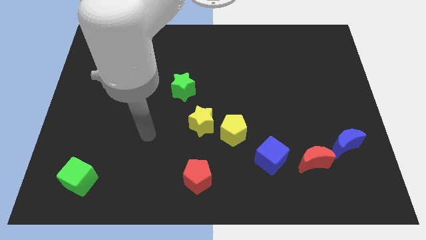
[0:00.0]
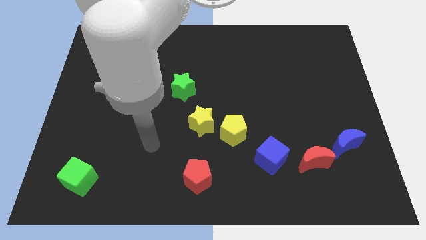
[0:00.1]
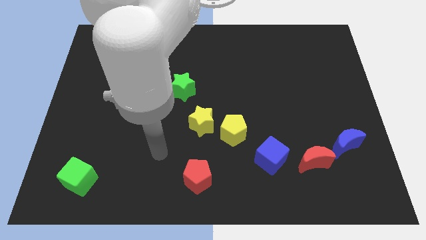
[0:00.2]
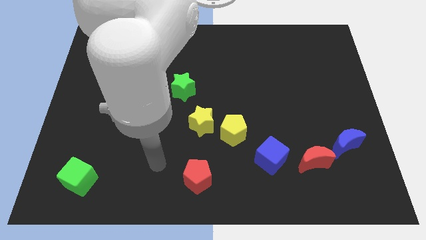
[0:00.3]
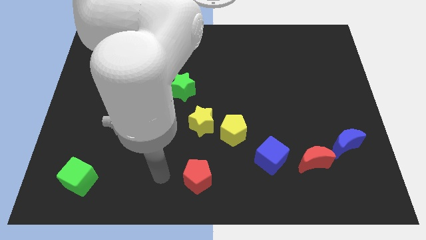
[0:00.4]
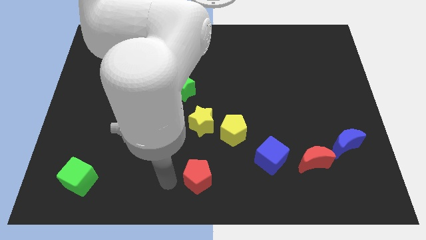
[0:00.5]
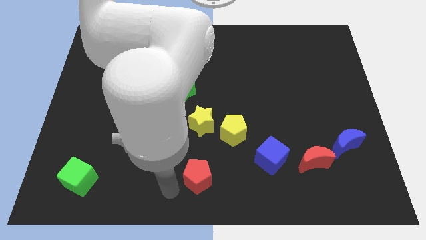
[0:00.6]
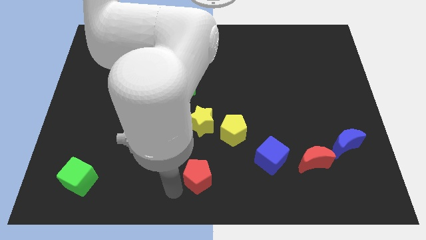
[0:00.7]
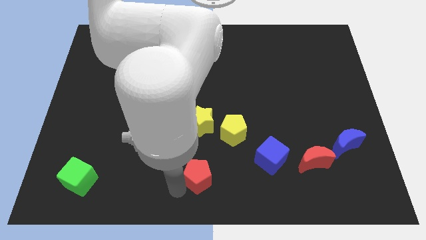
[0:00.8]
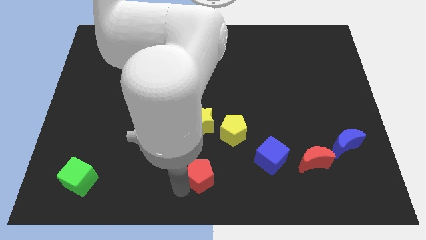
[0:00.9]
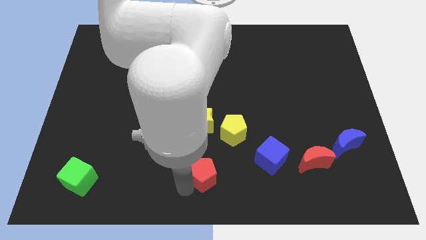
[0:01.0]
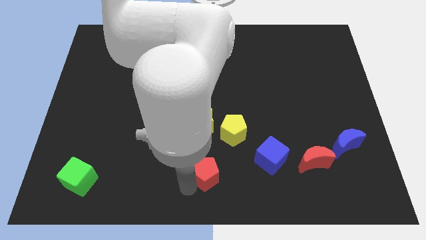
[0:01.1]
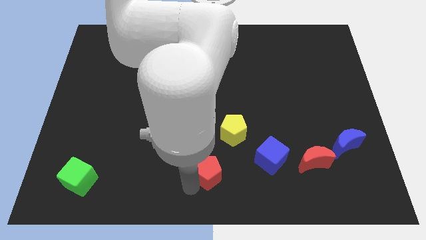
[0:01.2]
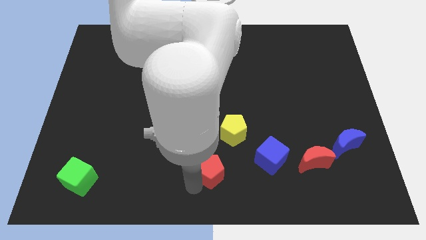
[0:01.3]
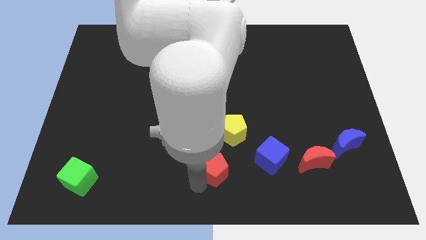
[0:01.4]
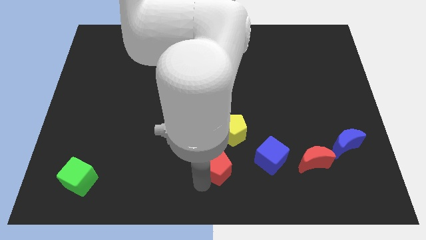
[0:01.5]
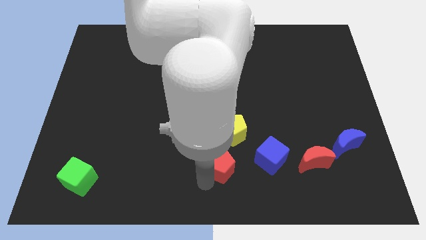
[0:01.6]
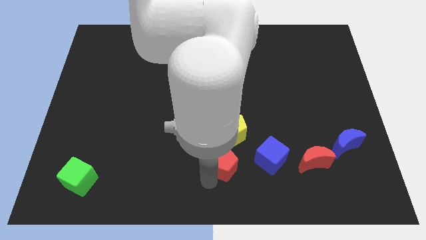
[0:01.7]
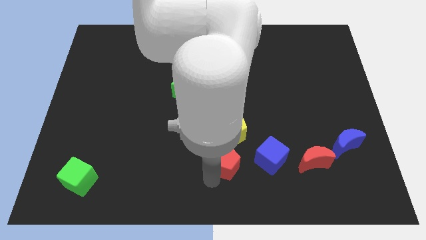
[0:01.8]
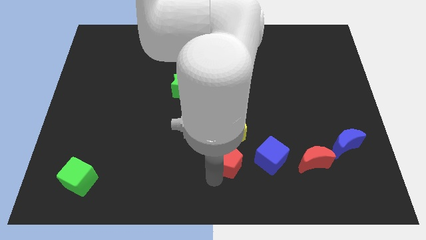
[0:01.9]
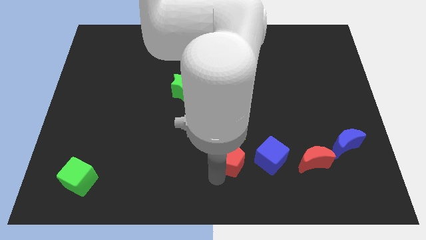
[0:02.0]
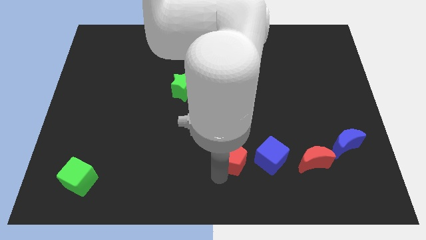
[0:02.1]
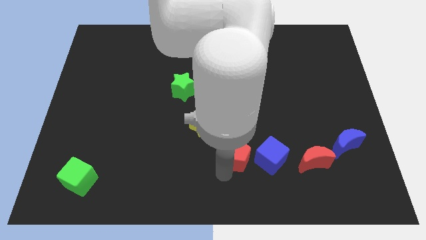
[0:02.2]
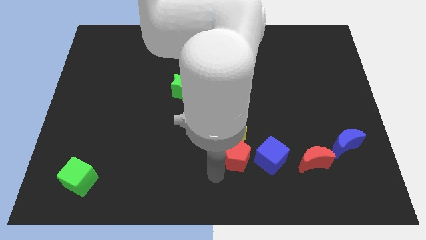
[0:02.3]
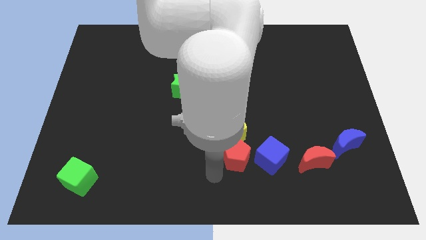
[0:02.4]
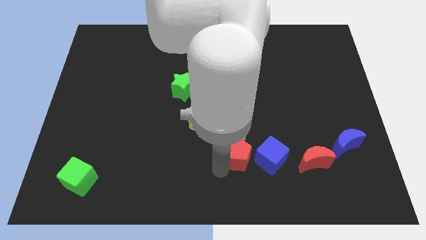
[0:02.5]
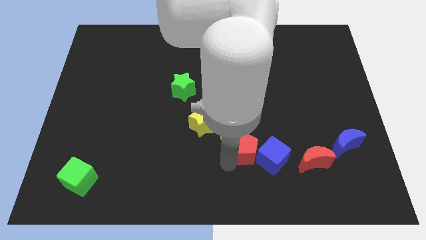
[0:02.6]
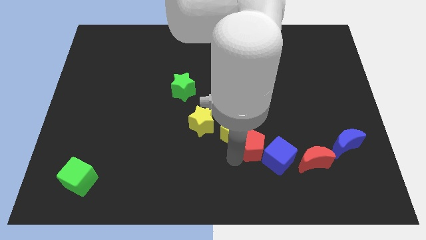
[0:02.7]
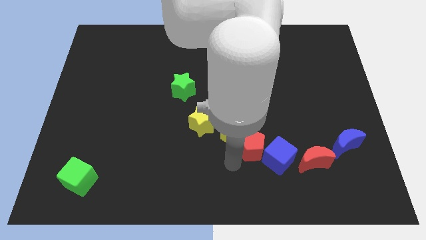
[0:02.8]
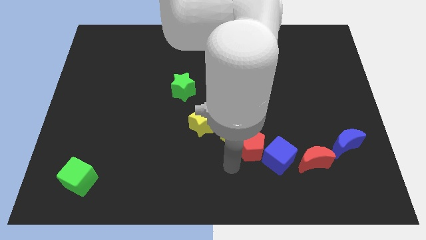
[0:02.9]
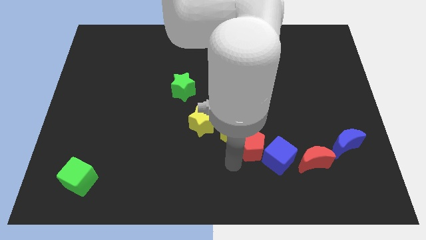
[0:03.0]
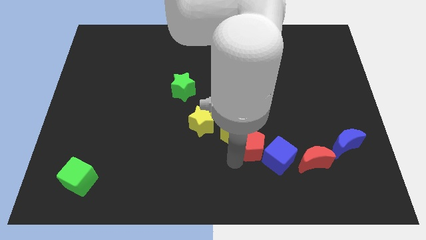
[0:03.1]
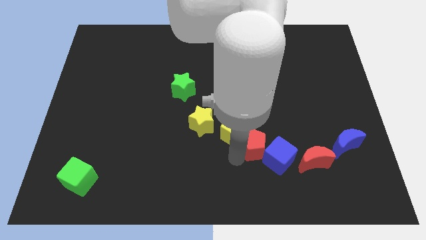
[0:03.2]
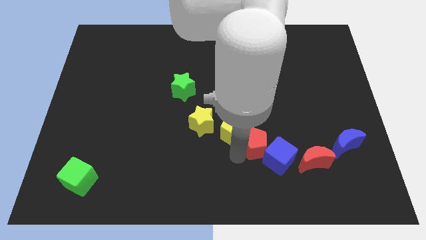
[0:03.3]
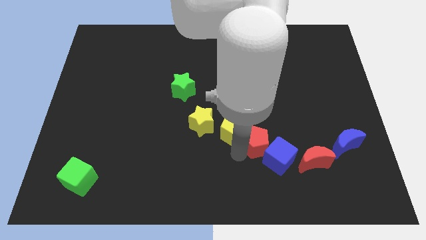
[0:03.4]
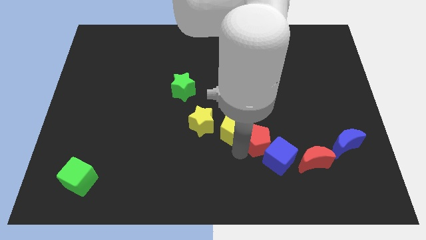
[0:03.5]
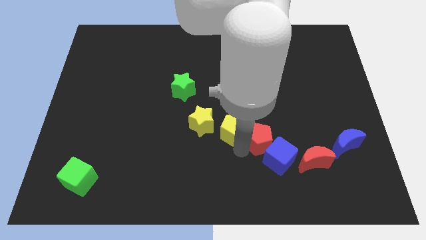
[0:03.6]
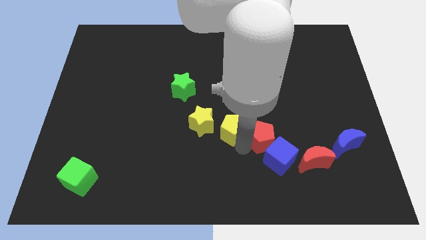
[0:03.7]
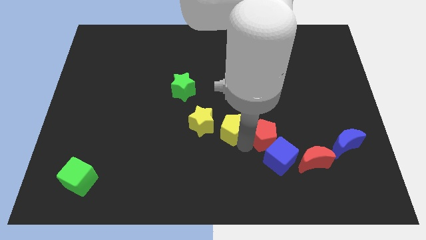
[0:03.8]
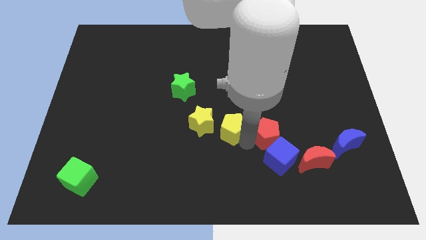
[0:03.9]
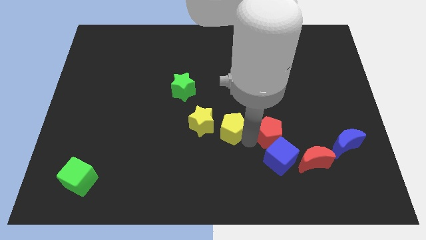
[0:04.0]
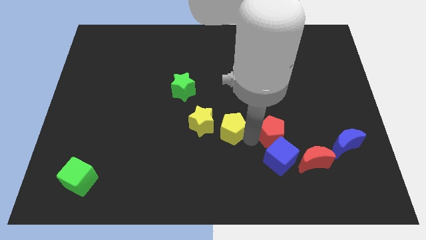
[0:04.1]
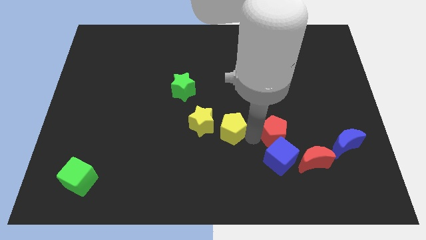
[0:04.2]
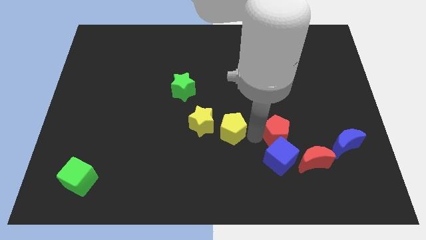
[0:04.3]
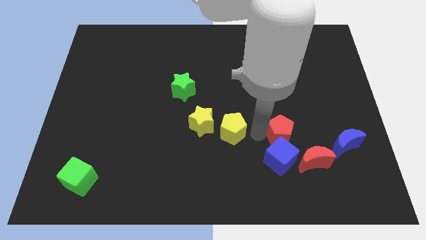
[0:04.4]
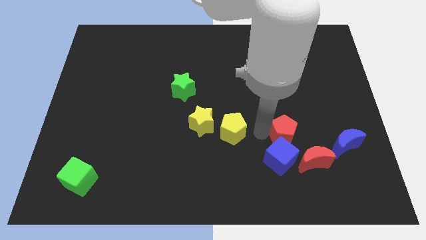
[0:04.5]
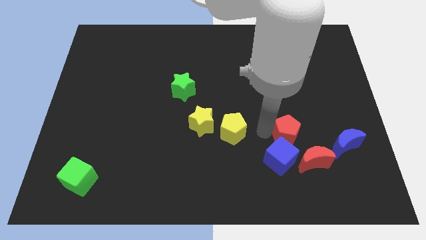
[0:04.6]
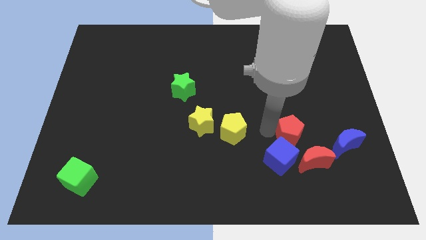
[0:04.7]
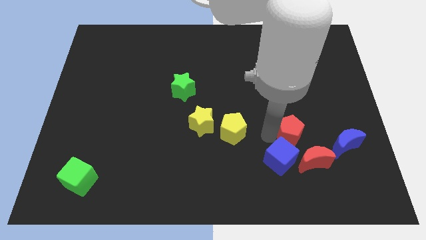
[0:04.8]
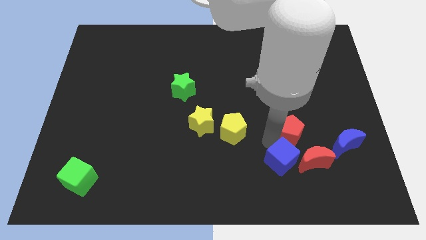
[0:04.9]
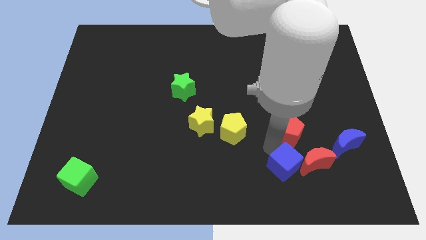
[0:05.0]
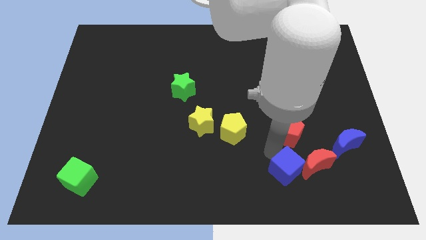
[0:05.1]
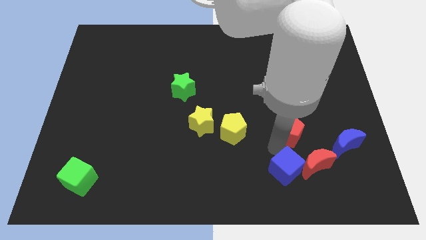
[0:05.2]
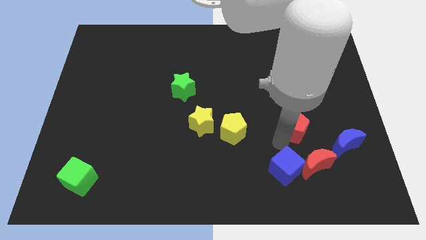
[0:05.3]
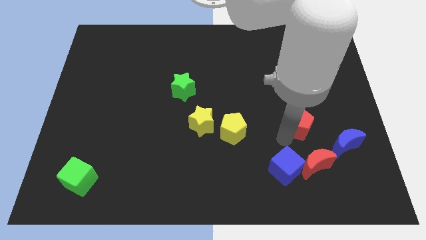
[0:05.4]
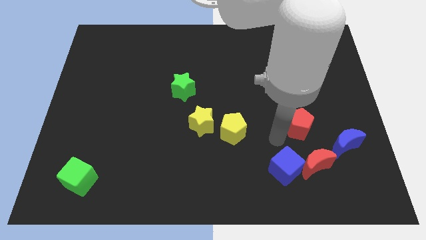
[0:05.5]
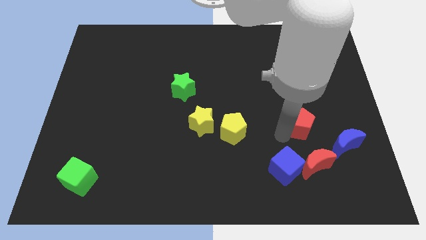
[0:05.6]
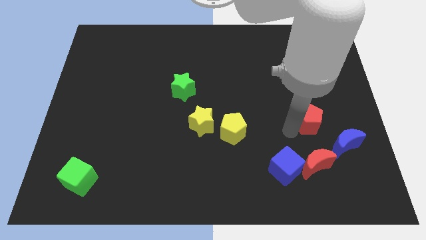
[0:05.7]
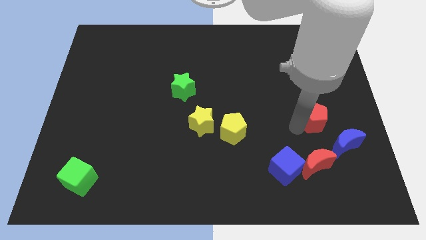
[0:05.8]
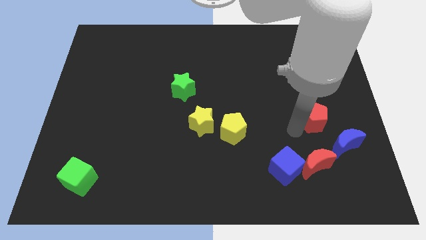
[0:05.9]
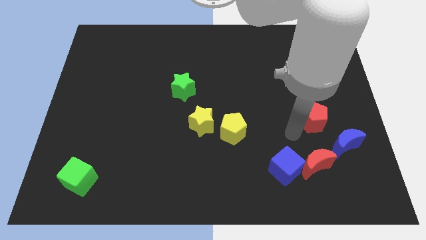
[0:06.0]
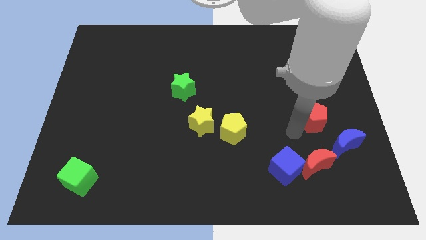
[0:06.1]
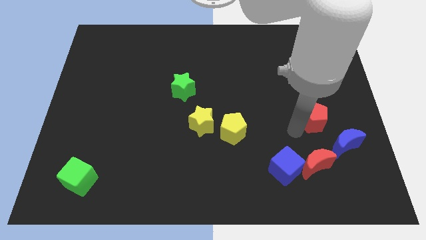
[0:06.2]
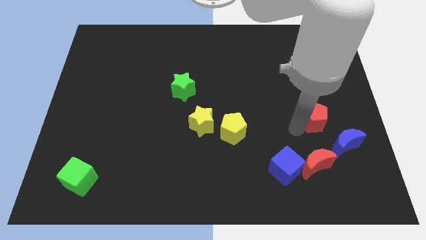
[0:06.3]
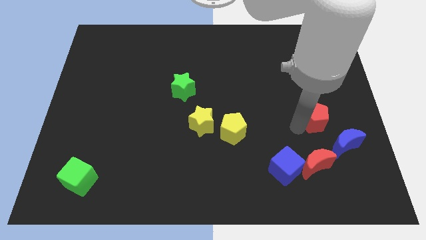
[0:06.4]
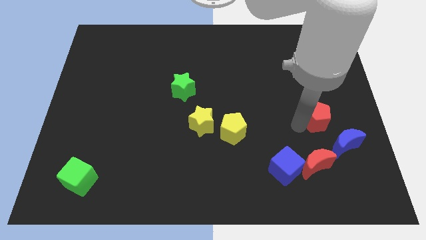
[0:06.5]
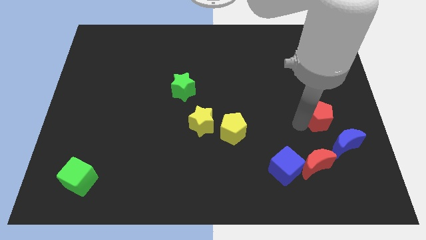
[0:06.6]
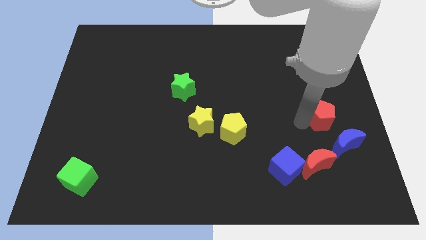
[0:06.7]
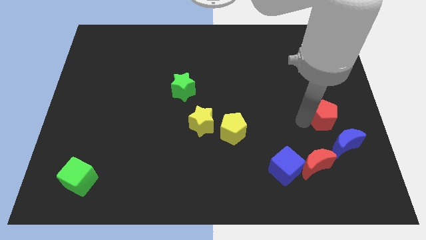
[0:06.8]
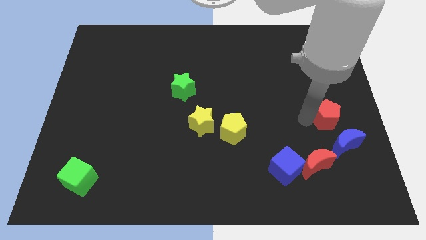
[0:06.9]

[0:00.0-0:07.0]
slide the red pentagon to the right side of the board
